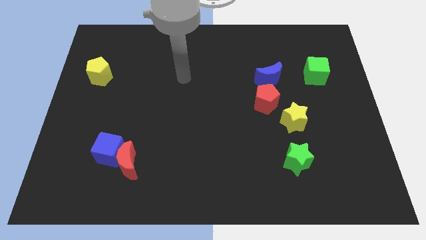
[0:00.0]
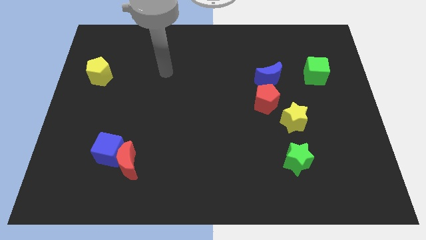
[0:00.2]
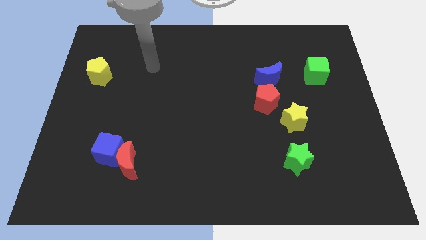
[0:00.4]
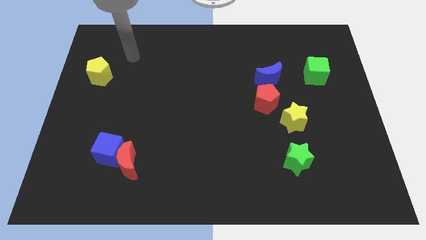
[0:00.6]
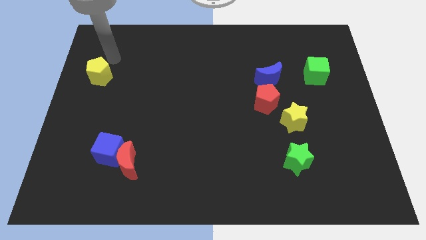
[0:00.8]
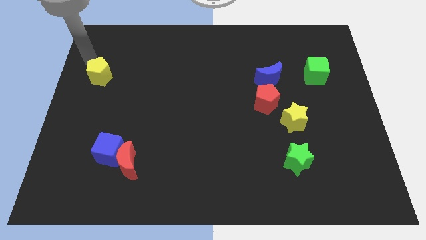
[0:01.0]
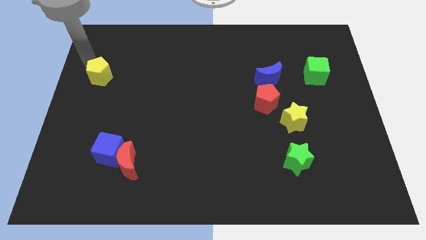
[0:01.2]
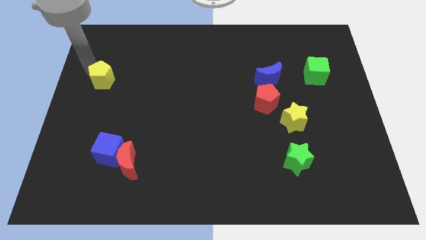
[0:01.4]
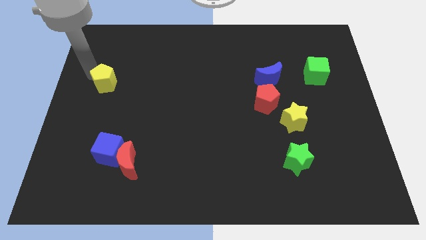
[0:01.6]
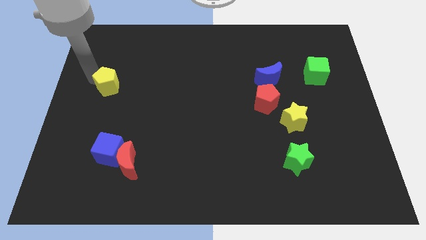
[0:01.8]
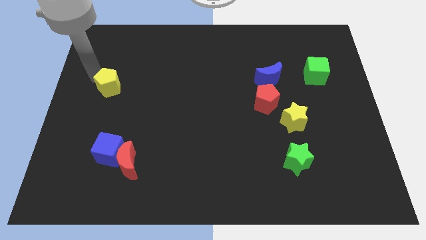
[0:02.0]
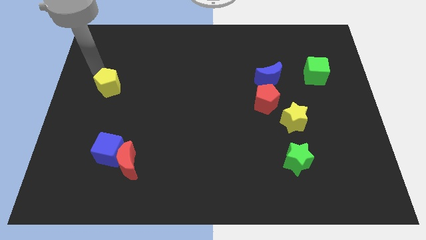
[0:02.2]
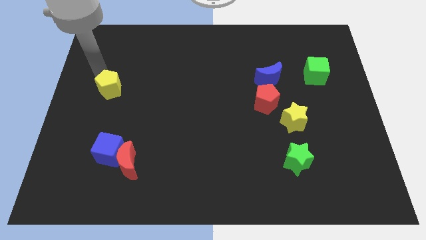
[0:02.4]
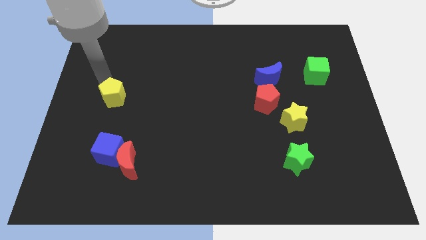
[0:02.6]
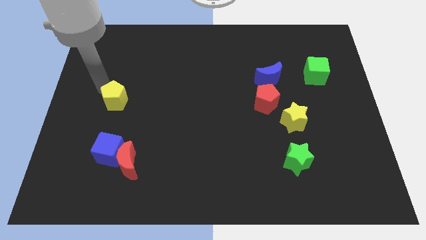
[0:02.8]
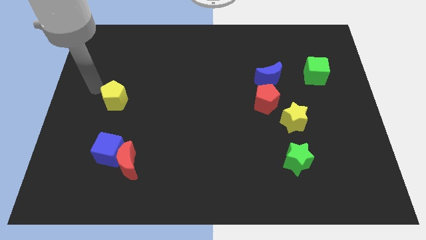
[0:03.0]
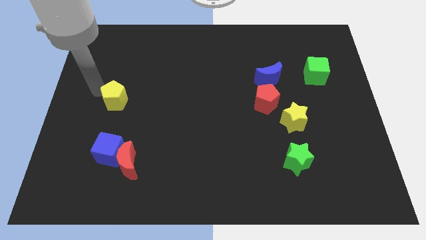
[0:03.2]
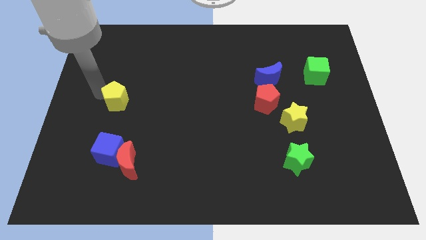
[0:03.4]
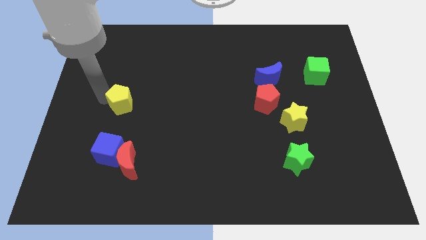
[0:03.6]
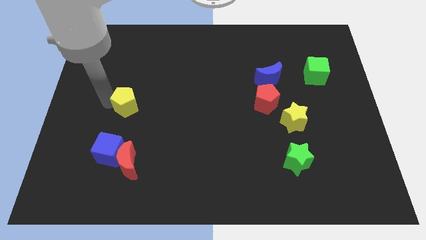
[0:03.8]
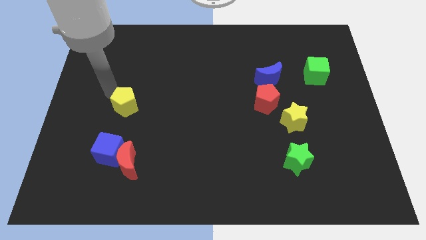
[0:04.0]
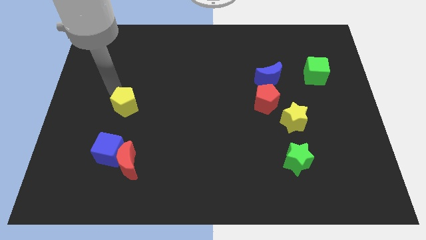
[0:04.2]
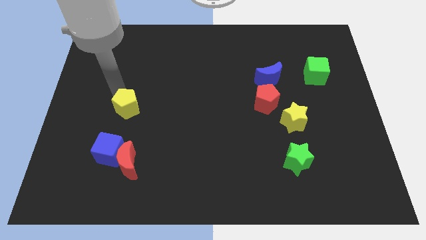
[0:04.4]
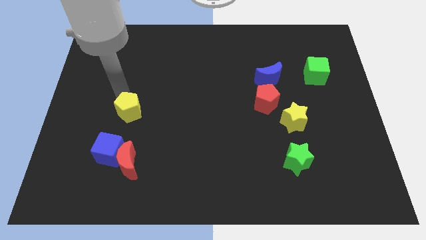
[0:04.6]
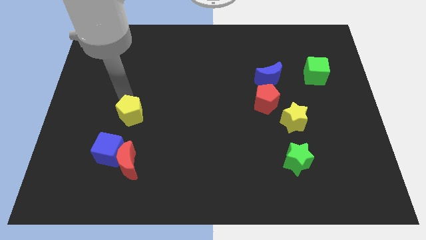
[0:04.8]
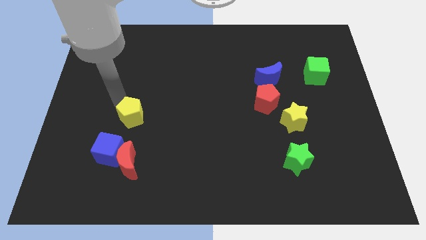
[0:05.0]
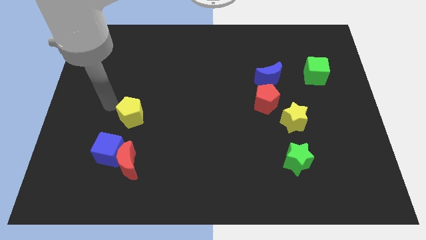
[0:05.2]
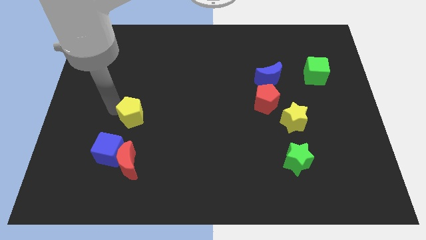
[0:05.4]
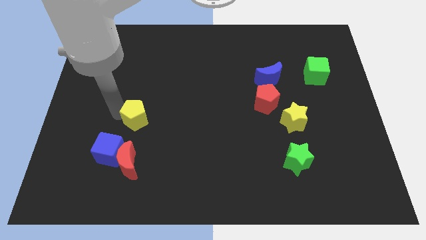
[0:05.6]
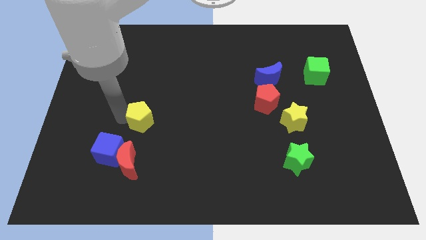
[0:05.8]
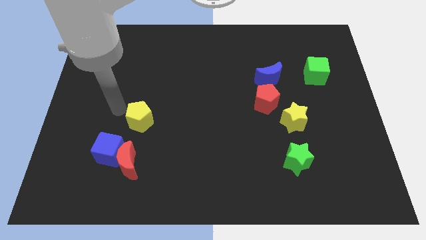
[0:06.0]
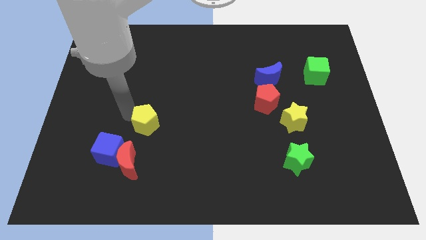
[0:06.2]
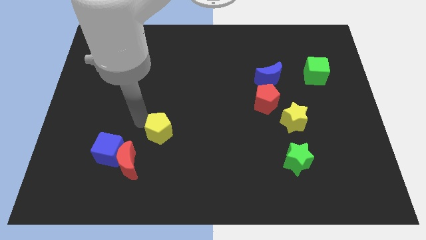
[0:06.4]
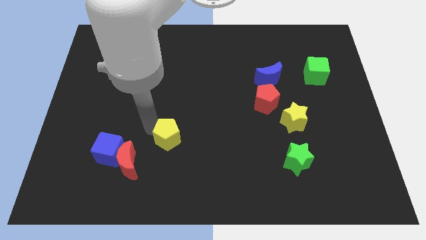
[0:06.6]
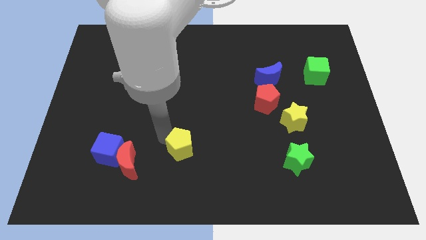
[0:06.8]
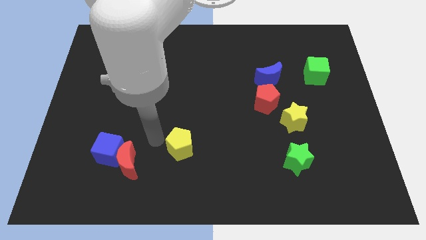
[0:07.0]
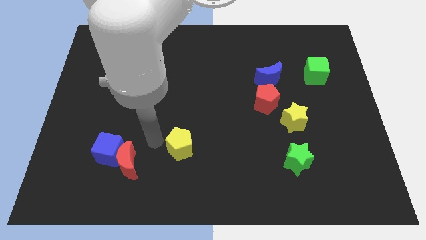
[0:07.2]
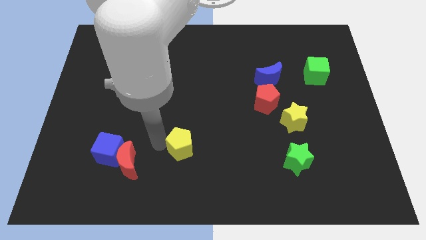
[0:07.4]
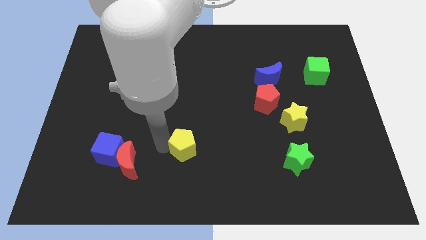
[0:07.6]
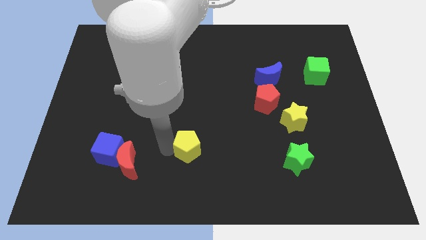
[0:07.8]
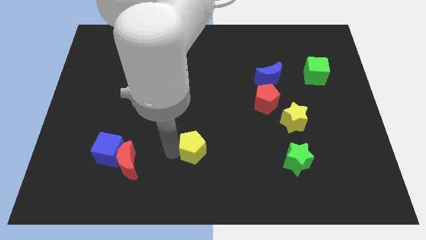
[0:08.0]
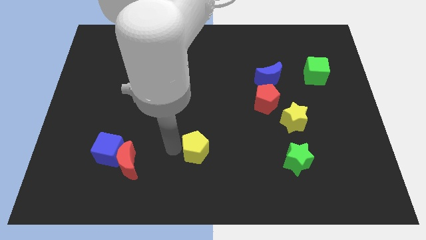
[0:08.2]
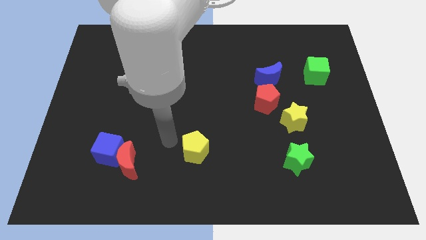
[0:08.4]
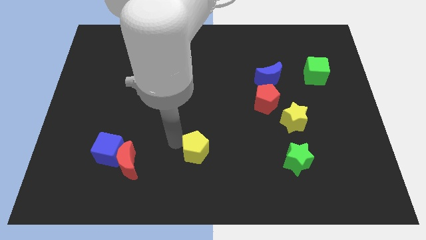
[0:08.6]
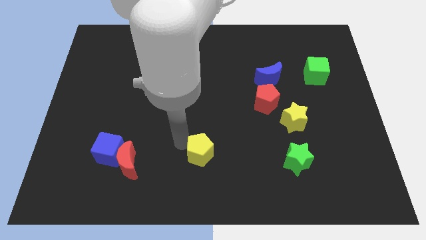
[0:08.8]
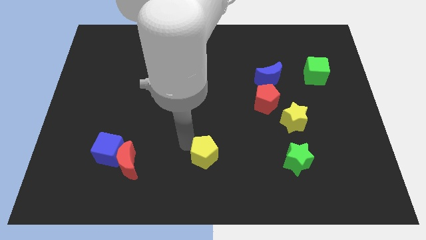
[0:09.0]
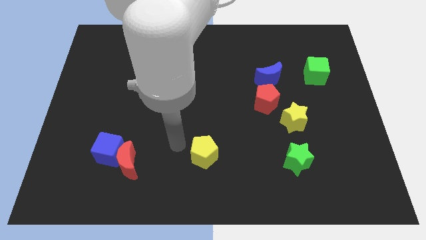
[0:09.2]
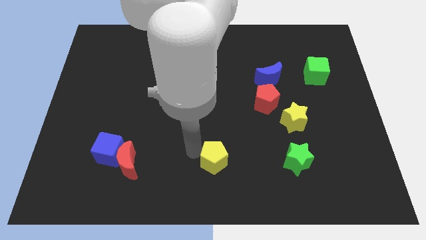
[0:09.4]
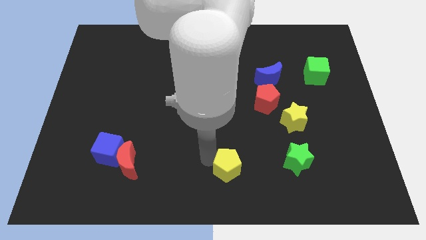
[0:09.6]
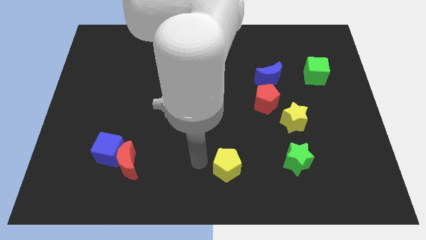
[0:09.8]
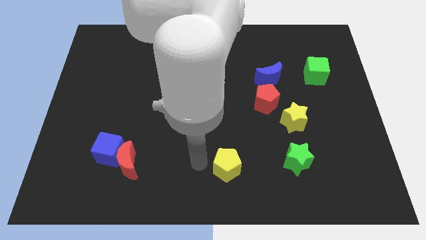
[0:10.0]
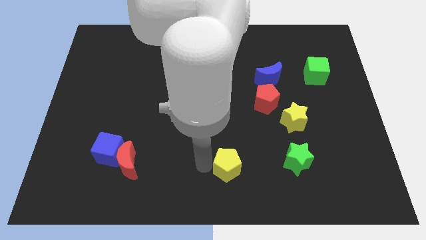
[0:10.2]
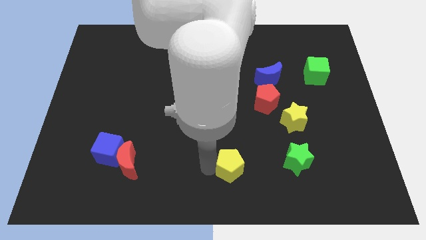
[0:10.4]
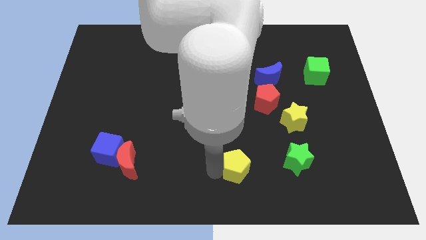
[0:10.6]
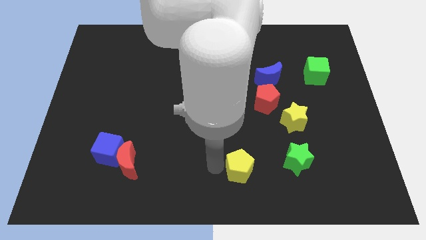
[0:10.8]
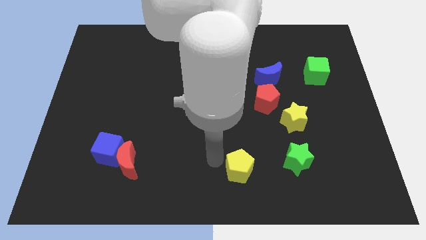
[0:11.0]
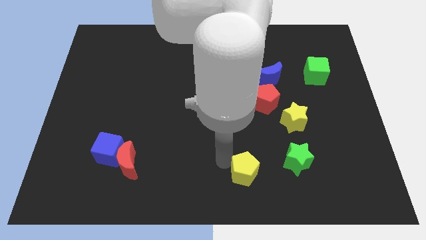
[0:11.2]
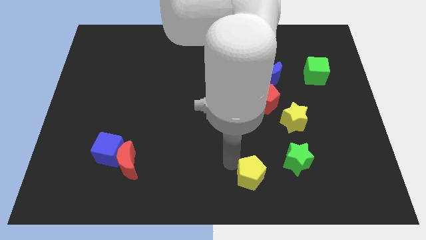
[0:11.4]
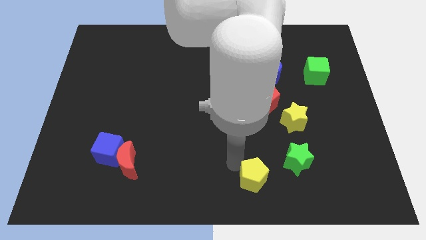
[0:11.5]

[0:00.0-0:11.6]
slide the yellow pentagon to the bottom left side of the green star

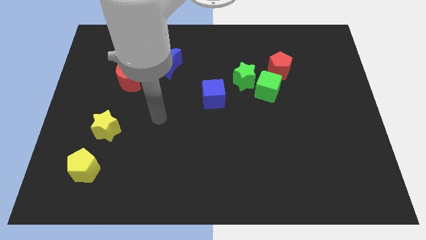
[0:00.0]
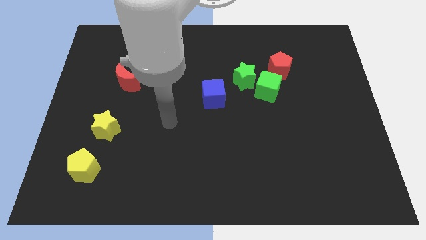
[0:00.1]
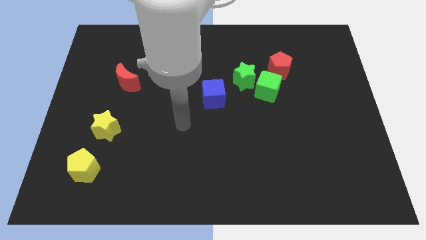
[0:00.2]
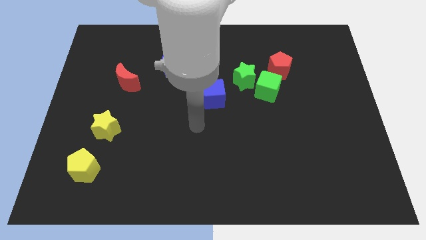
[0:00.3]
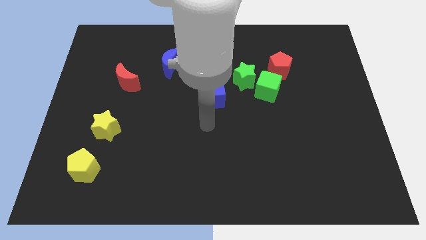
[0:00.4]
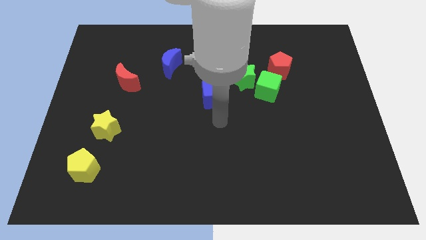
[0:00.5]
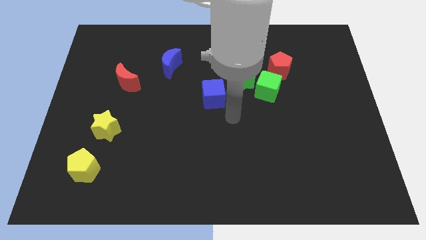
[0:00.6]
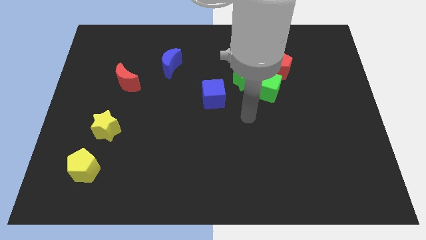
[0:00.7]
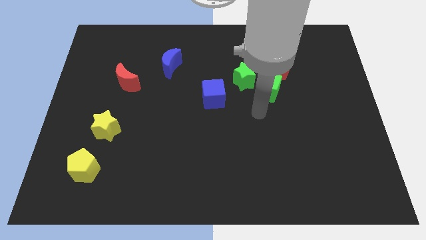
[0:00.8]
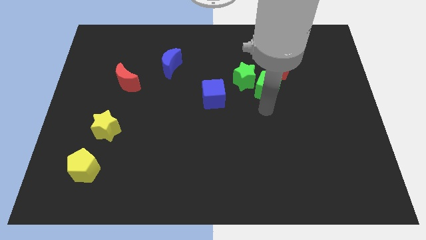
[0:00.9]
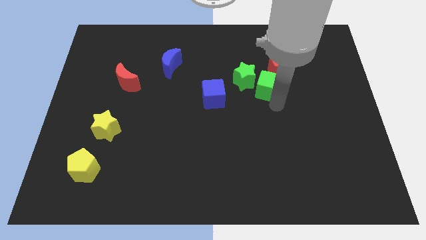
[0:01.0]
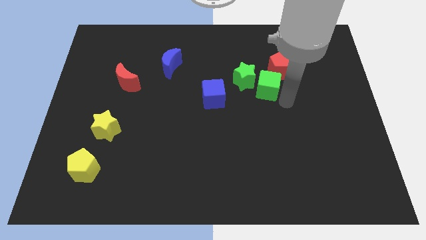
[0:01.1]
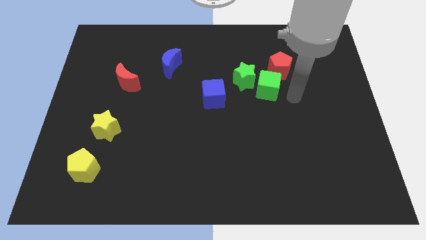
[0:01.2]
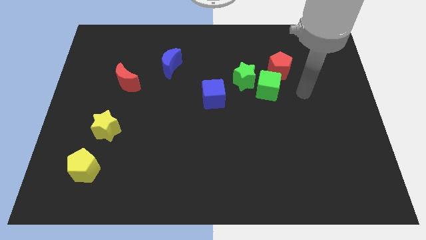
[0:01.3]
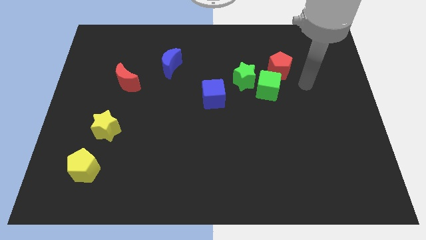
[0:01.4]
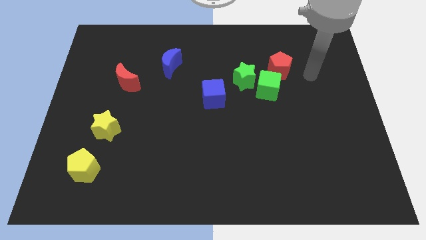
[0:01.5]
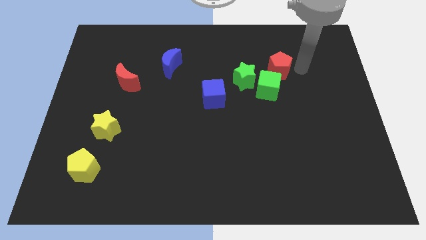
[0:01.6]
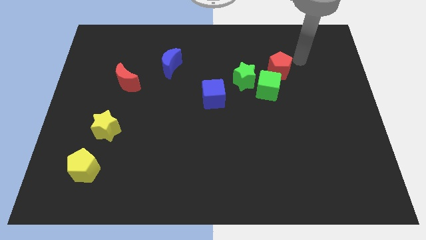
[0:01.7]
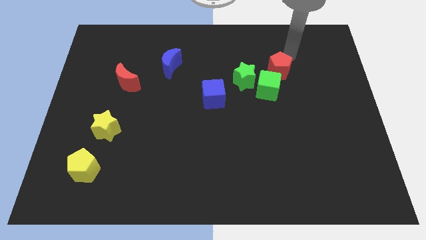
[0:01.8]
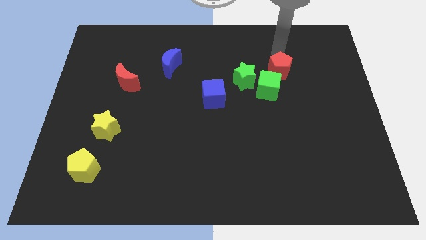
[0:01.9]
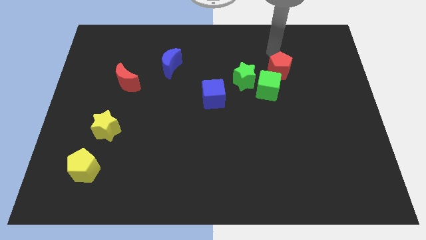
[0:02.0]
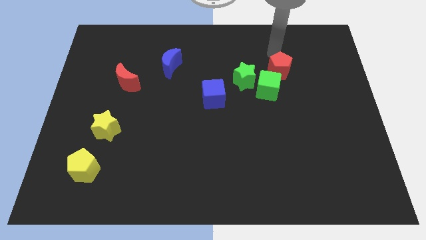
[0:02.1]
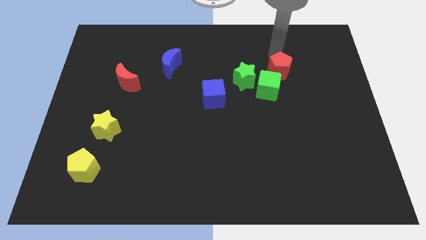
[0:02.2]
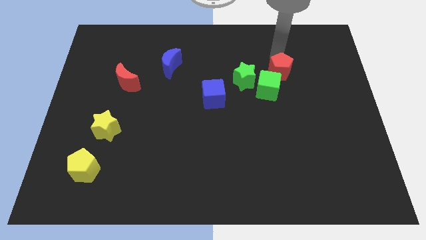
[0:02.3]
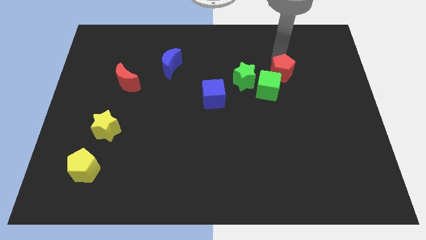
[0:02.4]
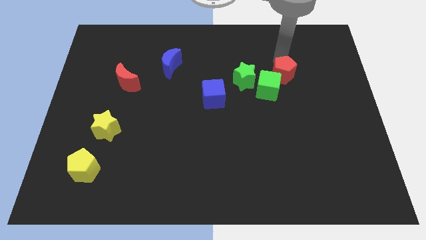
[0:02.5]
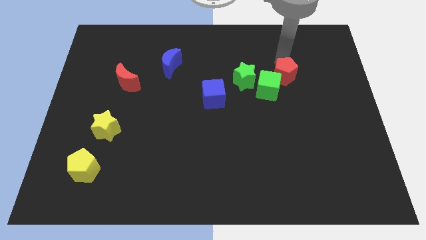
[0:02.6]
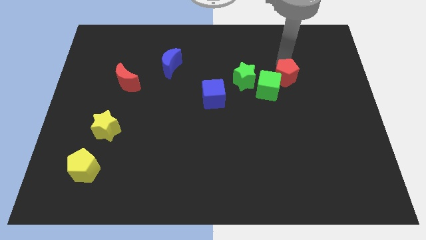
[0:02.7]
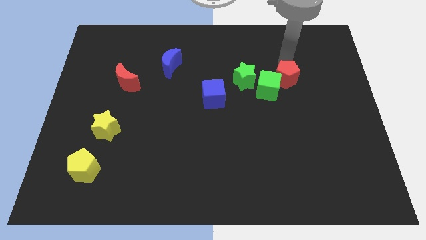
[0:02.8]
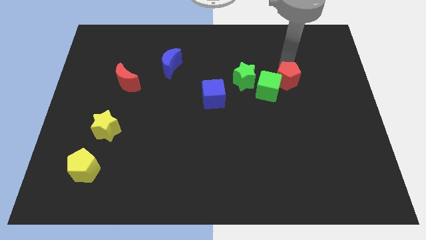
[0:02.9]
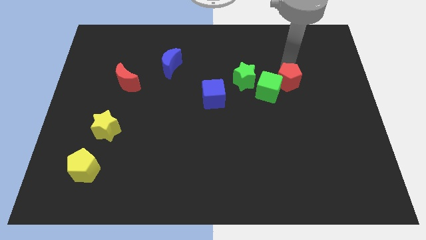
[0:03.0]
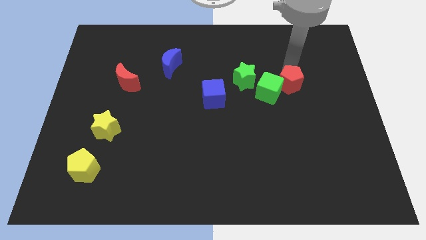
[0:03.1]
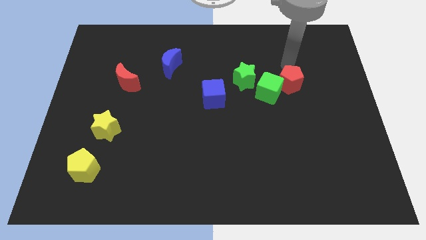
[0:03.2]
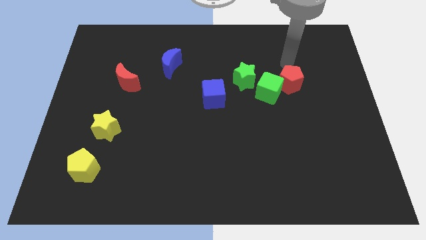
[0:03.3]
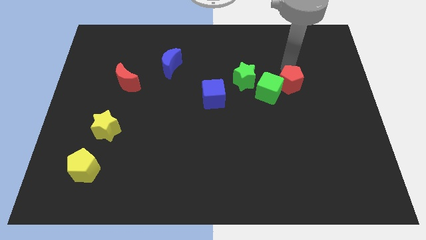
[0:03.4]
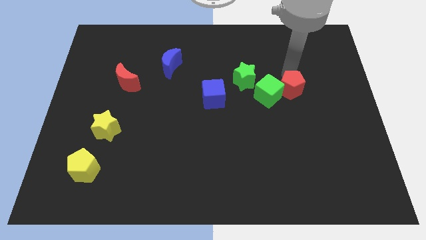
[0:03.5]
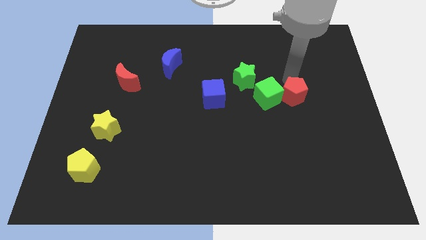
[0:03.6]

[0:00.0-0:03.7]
move the red pentagon diagonally down and to the right of the green cube
